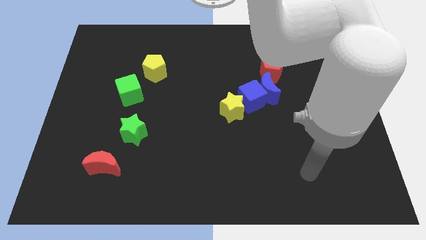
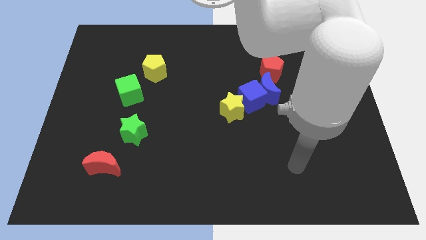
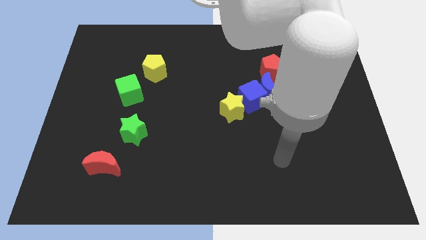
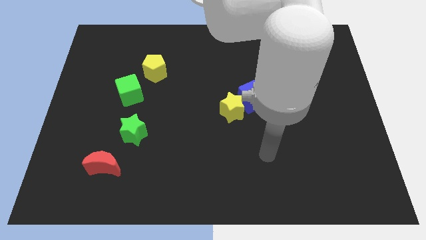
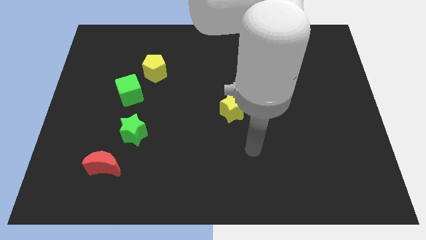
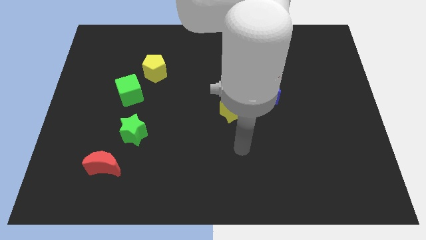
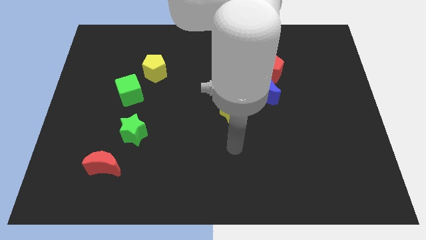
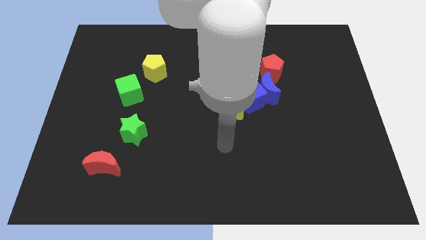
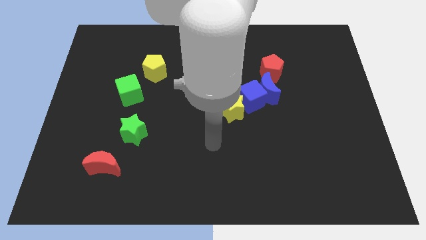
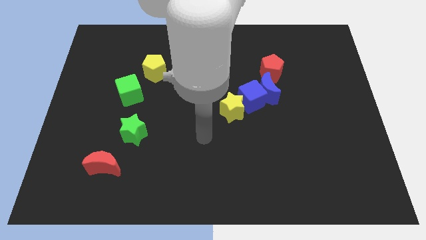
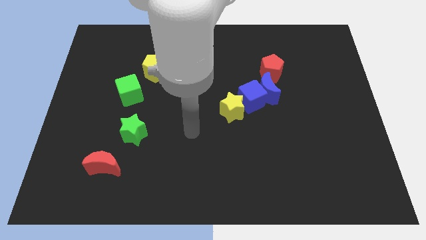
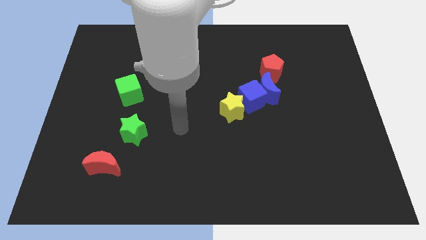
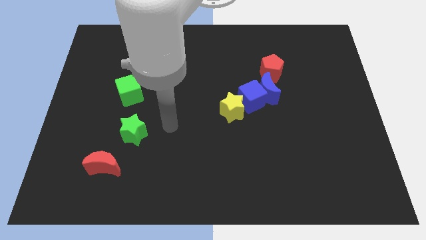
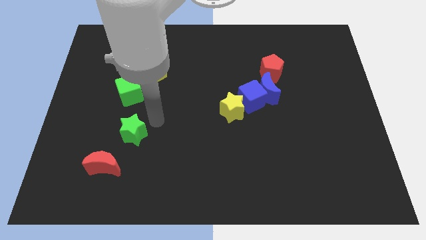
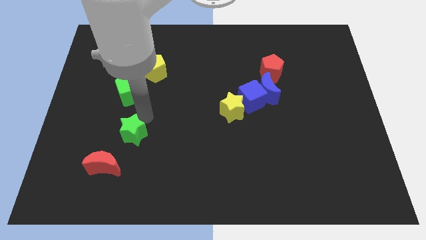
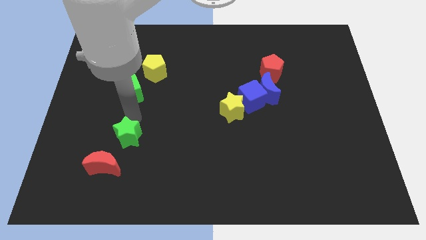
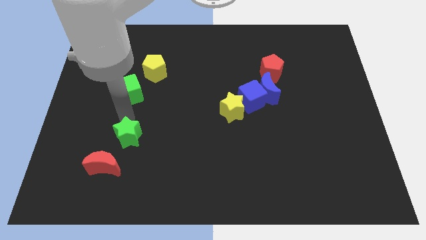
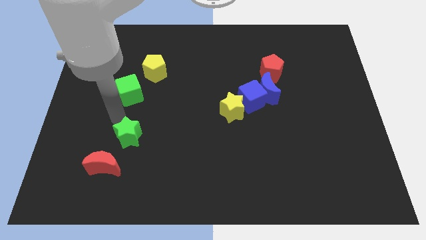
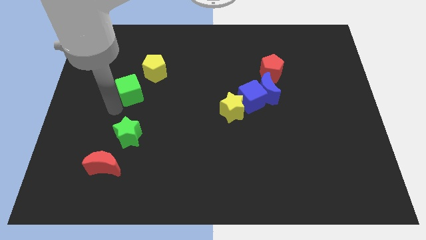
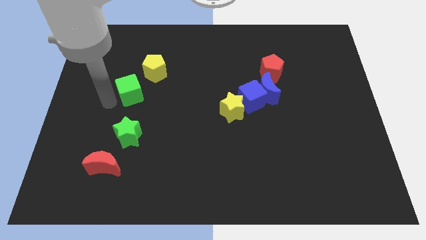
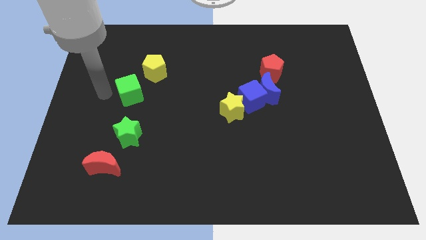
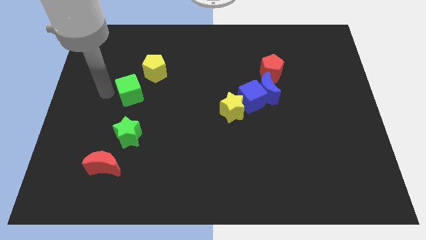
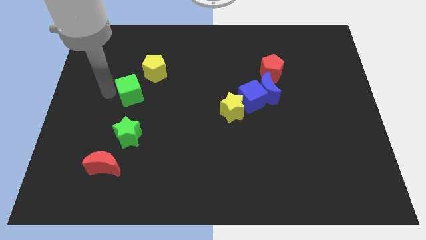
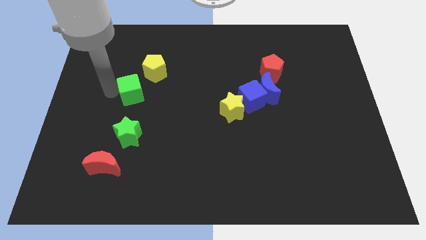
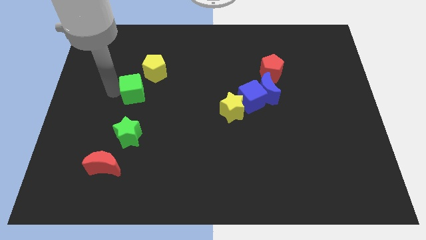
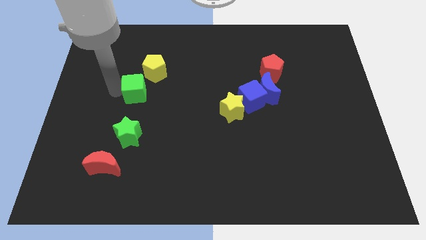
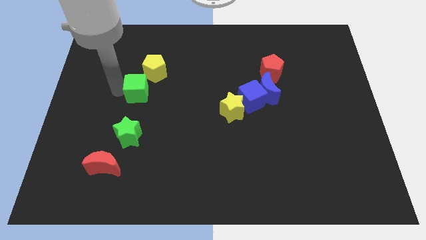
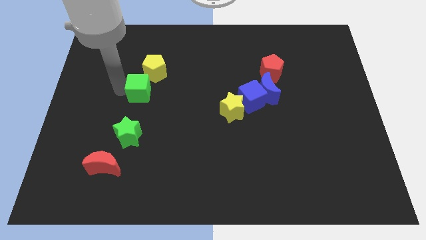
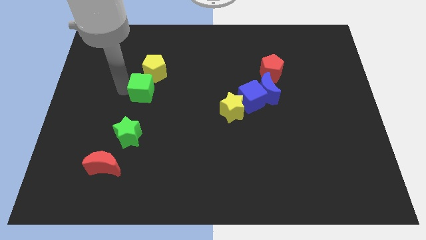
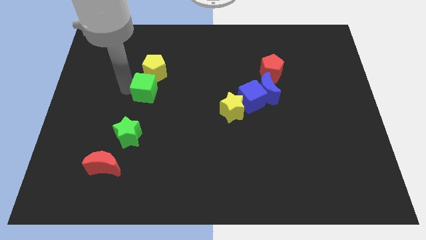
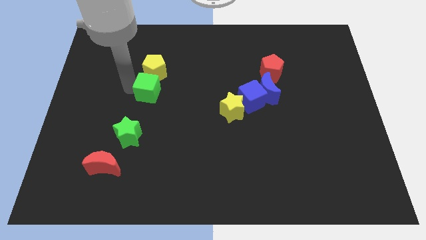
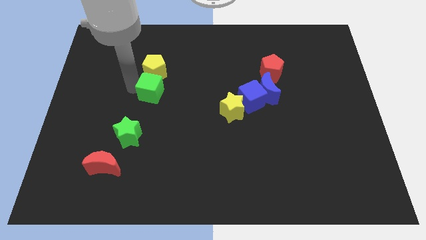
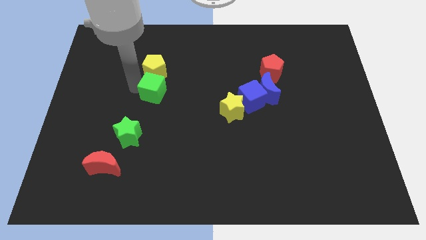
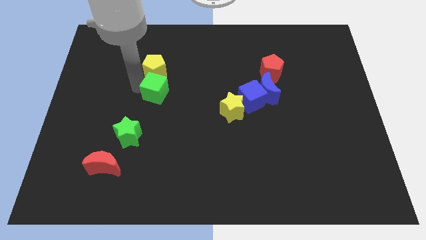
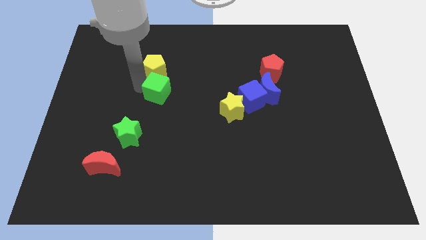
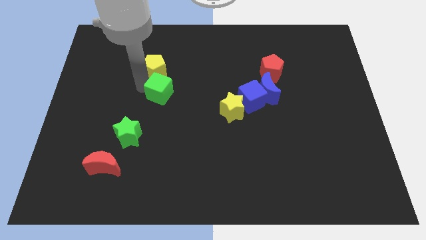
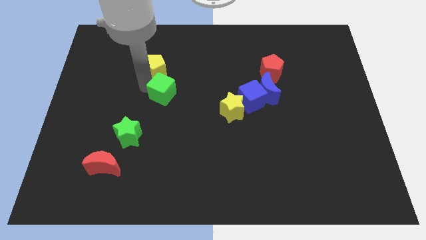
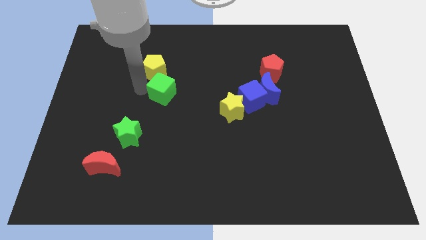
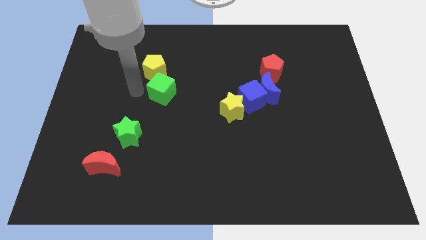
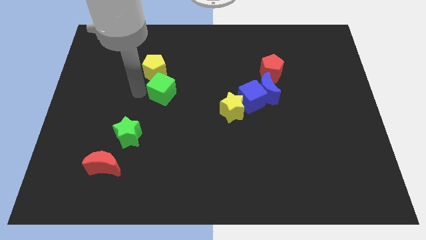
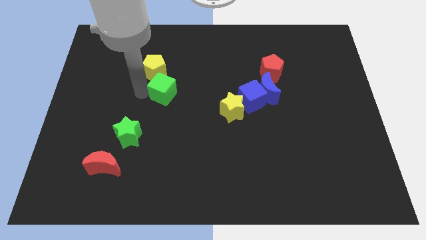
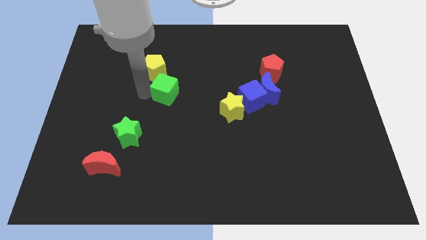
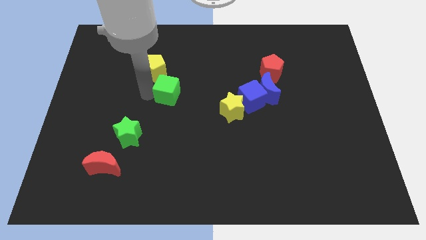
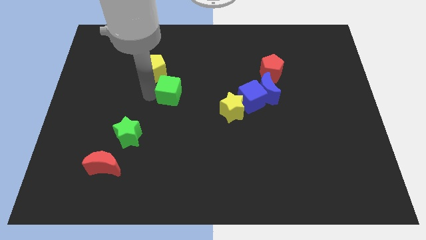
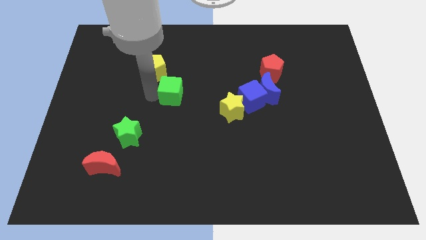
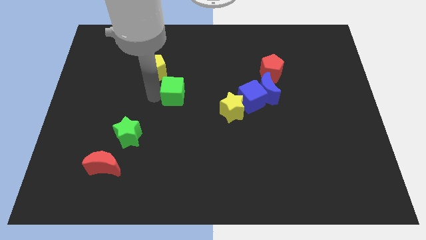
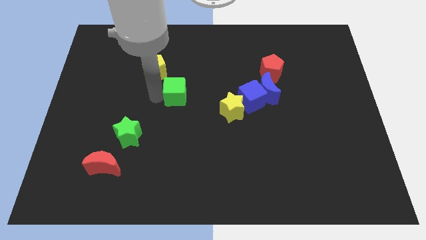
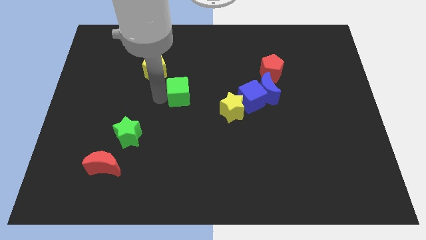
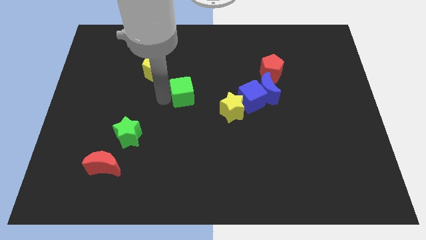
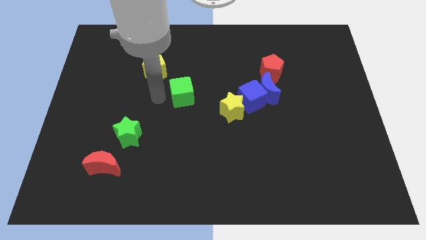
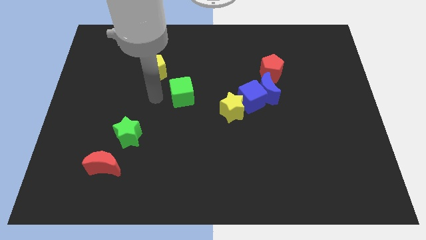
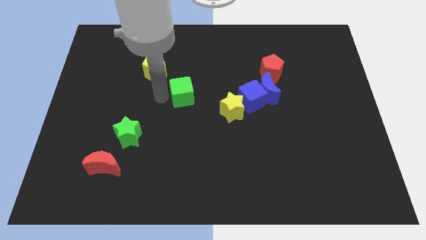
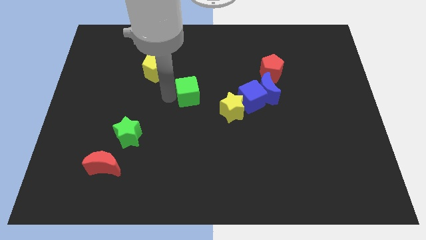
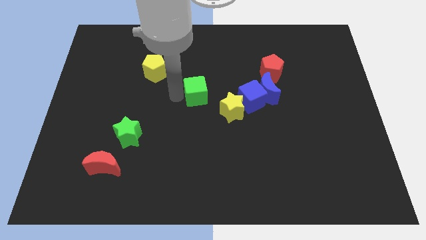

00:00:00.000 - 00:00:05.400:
push the green cube to the top left side of the yellow star

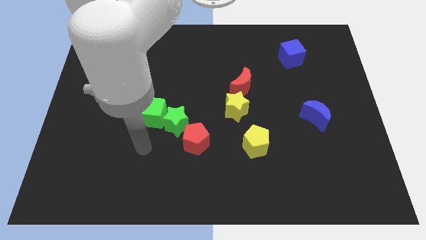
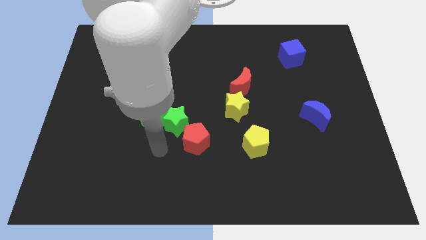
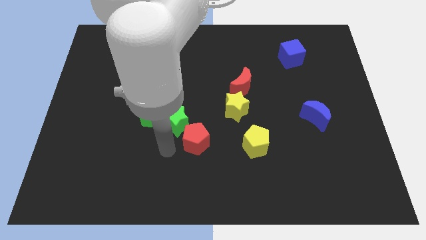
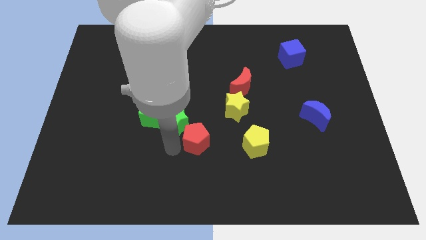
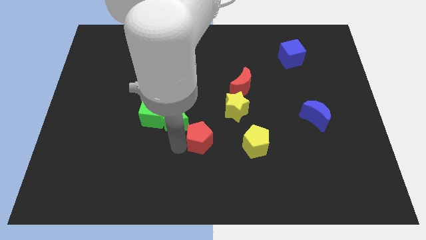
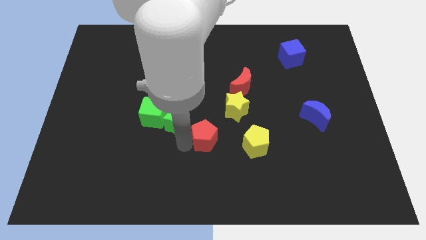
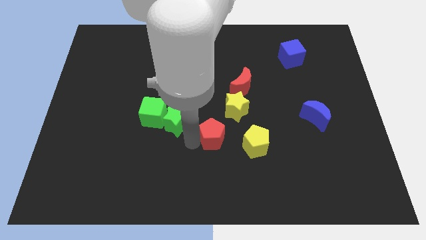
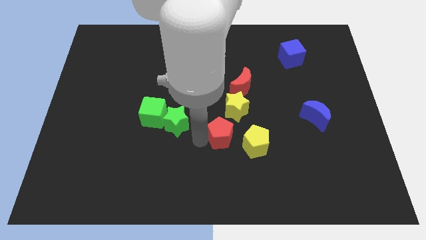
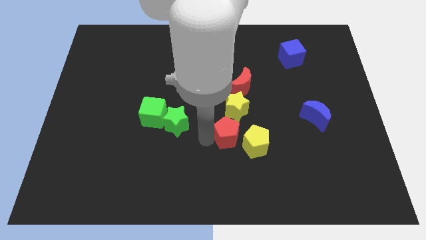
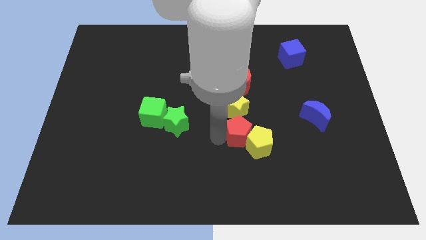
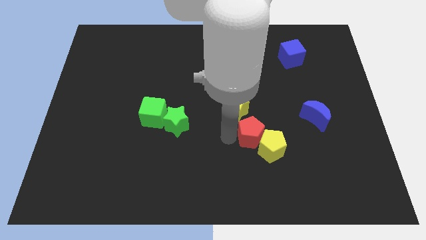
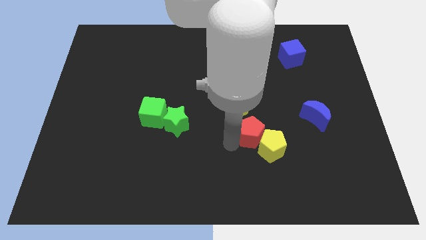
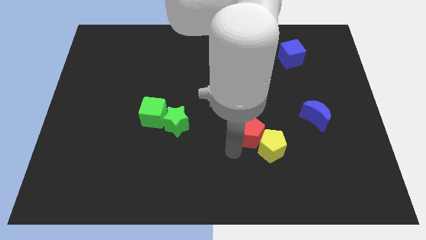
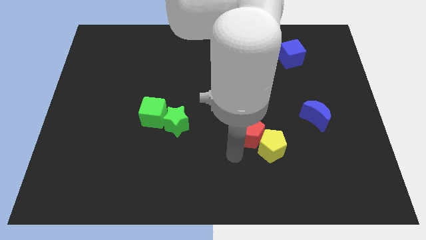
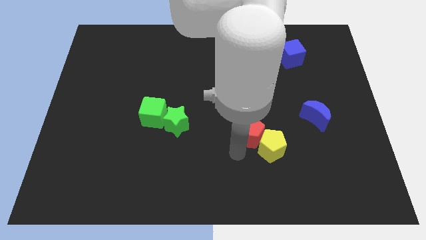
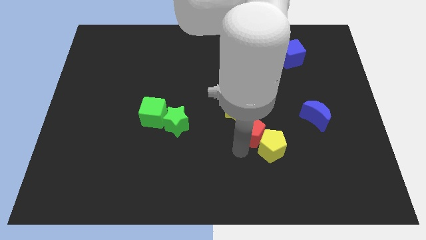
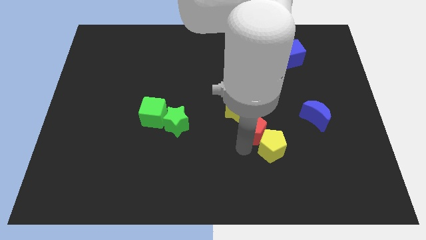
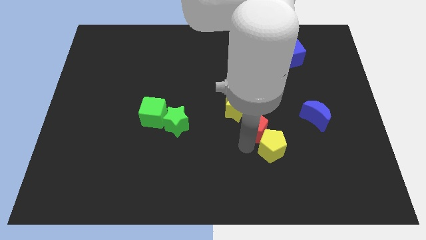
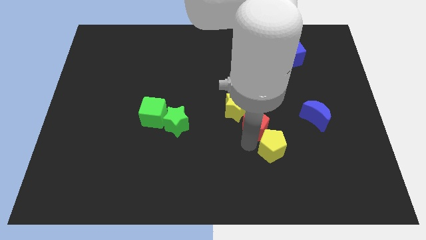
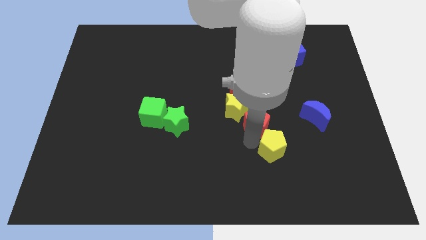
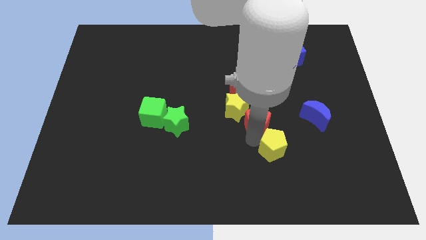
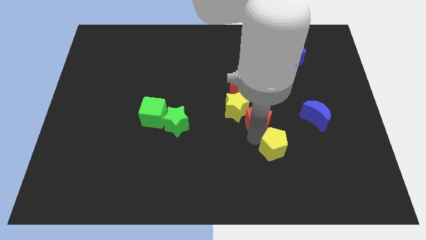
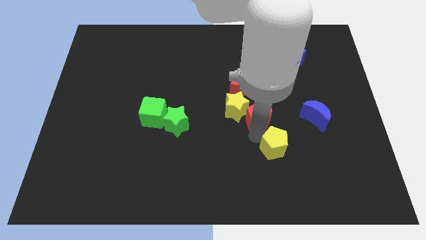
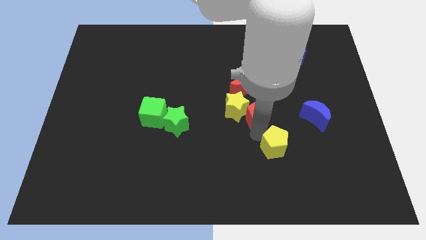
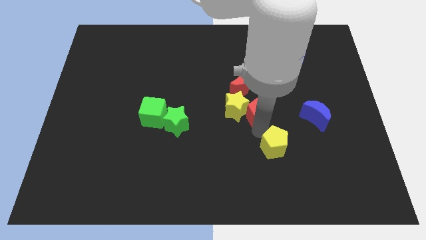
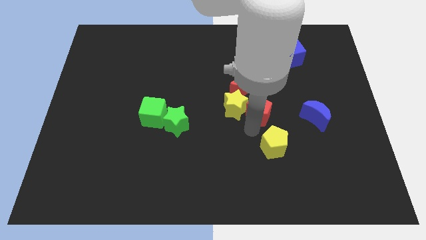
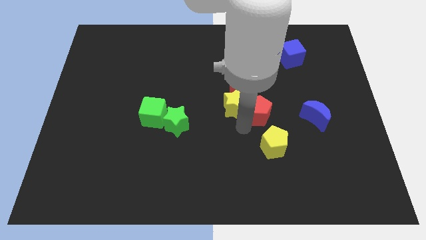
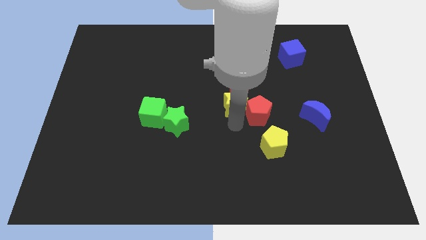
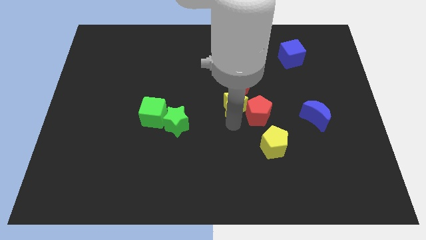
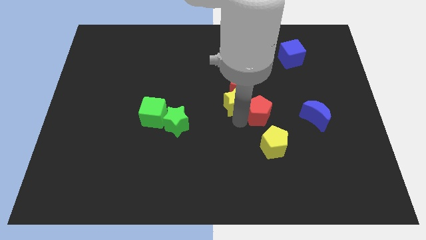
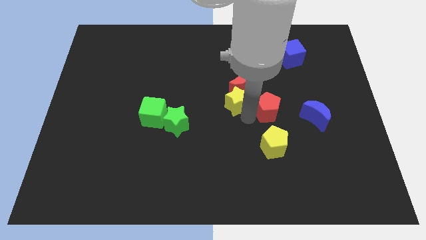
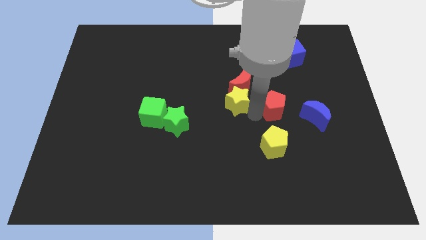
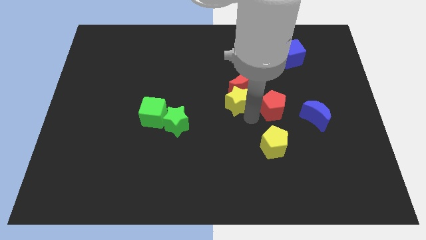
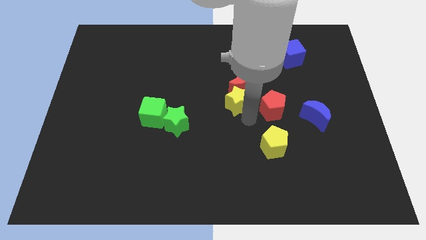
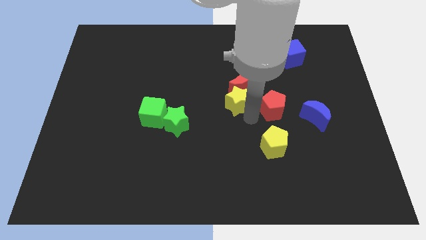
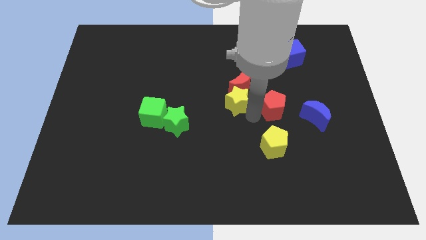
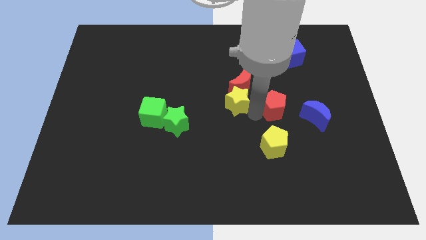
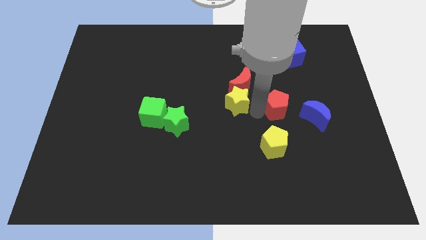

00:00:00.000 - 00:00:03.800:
slide the red pentagon diagonally up and to the left of the blue moon
